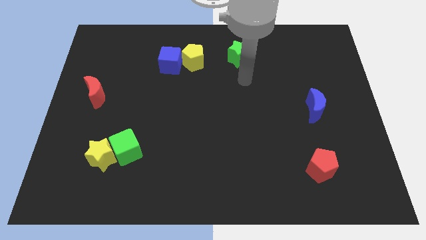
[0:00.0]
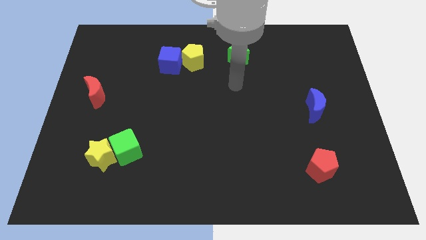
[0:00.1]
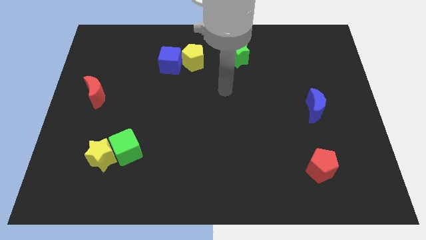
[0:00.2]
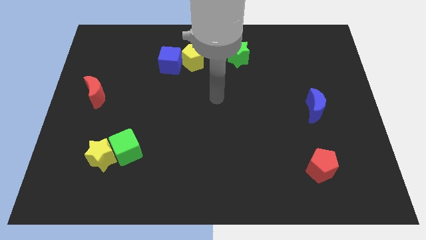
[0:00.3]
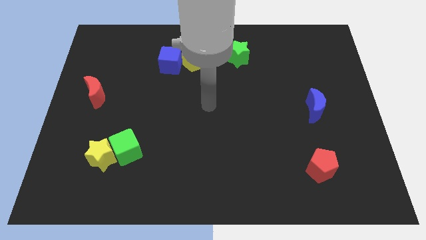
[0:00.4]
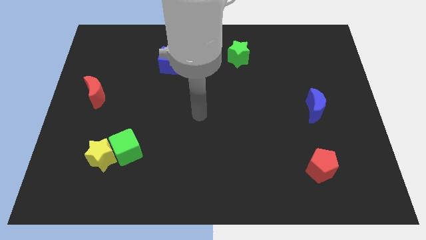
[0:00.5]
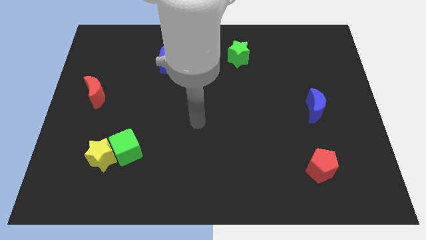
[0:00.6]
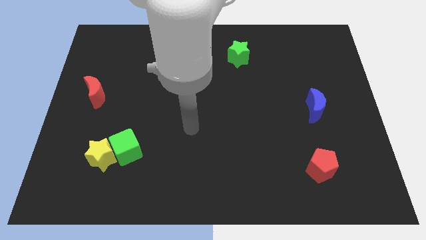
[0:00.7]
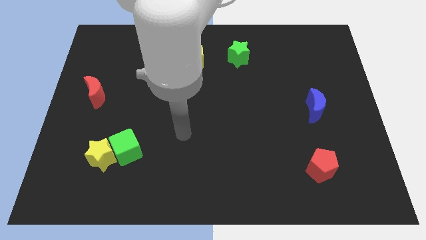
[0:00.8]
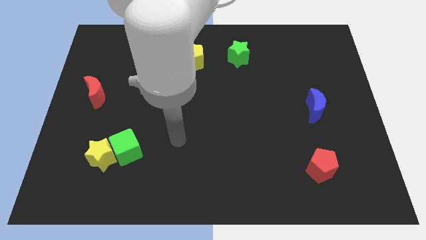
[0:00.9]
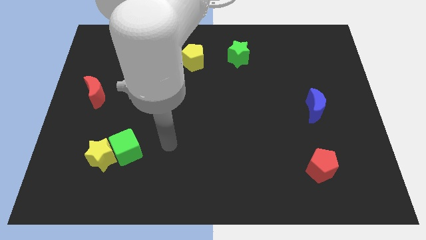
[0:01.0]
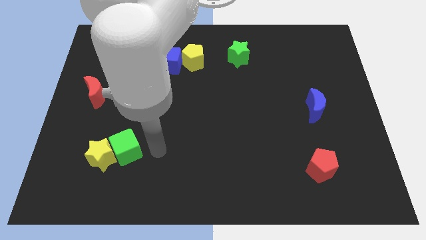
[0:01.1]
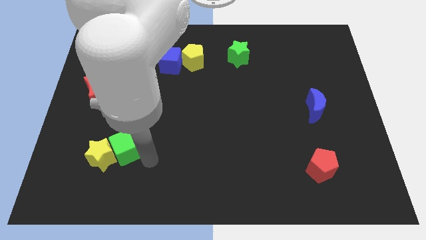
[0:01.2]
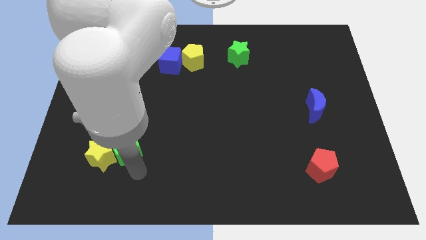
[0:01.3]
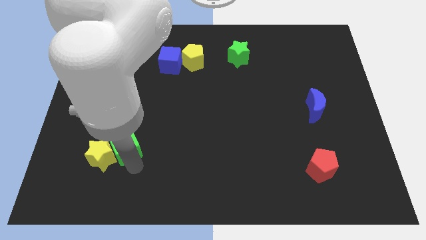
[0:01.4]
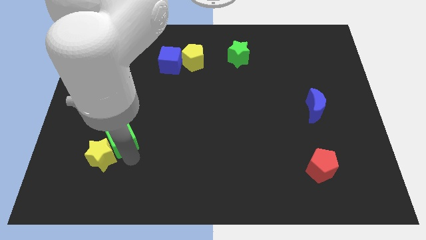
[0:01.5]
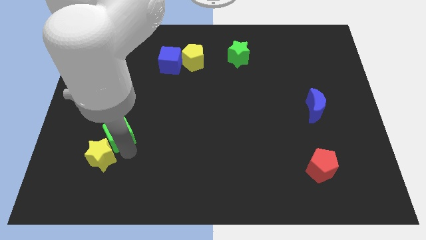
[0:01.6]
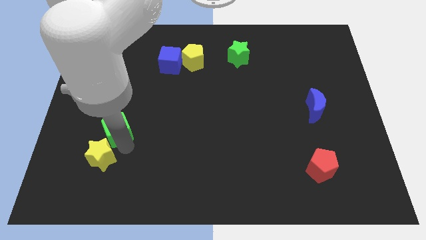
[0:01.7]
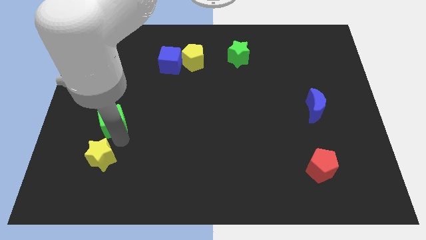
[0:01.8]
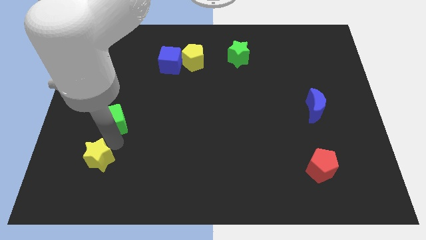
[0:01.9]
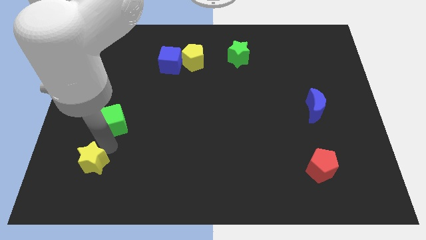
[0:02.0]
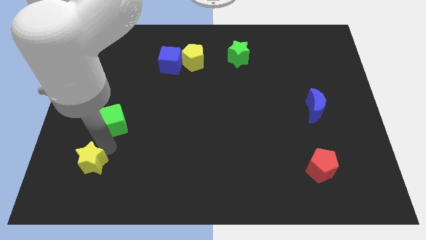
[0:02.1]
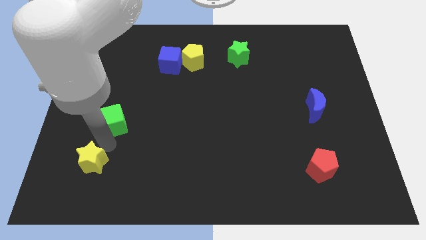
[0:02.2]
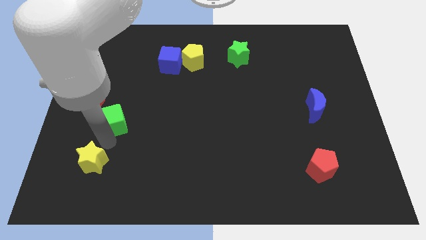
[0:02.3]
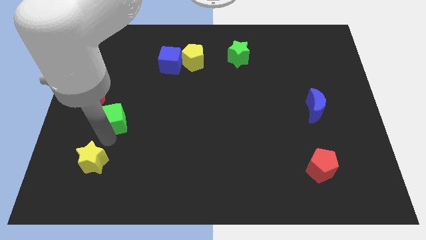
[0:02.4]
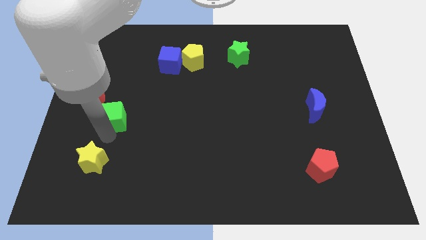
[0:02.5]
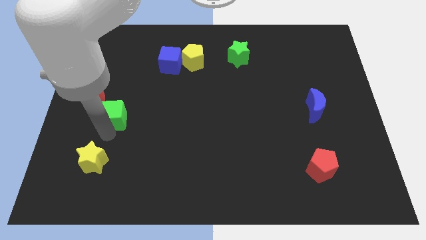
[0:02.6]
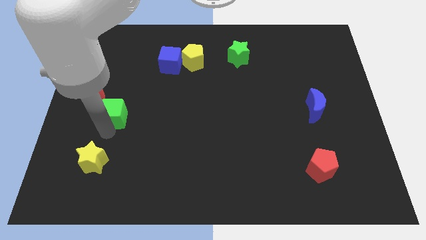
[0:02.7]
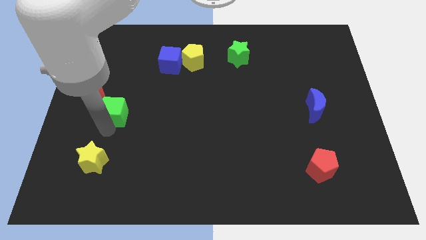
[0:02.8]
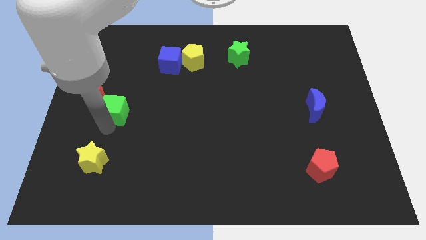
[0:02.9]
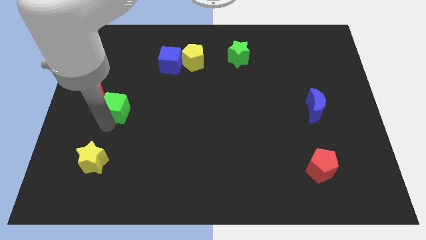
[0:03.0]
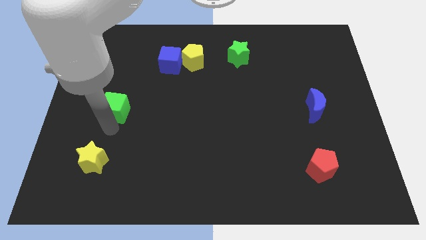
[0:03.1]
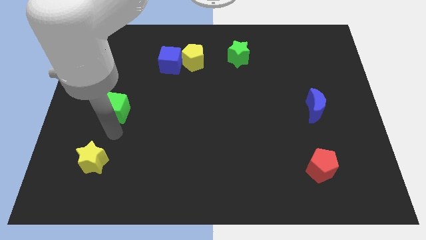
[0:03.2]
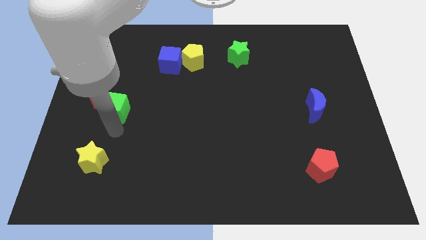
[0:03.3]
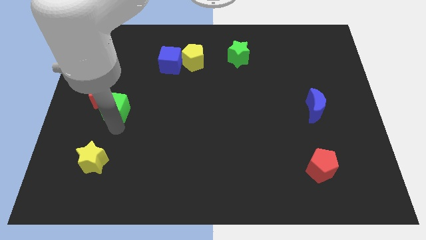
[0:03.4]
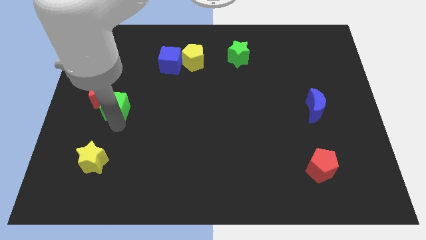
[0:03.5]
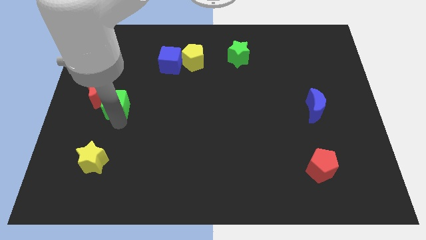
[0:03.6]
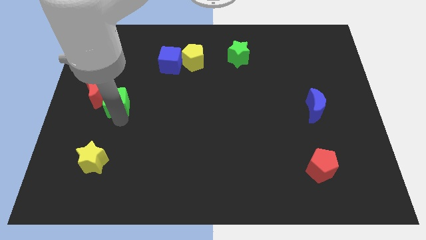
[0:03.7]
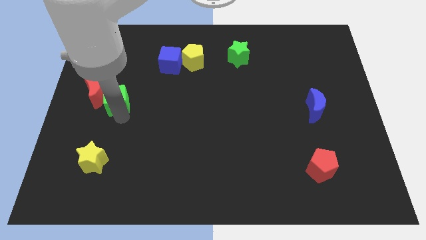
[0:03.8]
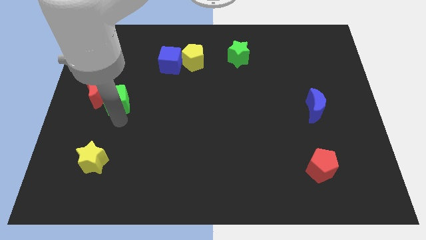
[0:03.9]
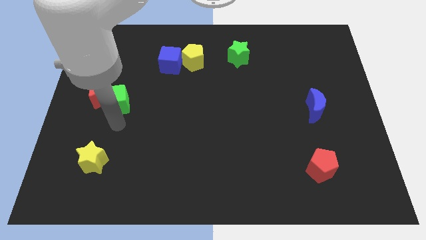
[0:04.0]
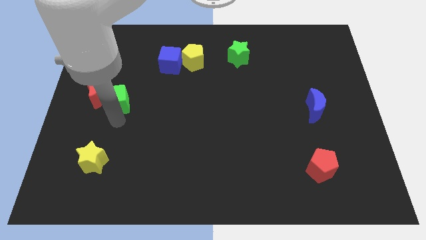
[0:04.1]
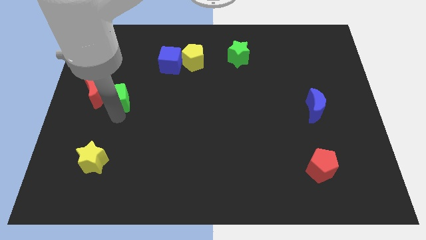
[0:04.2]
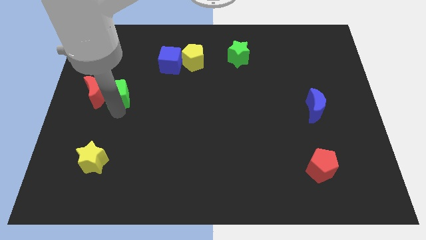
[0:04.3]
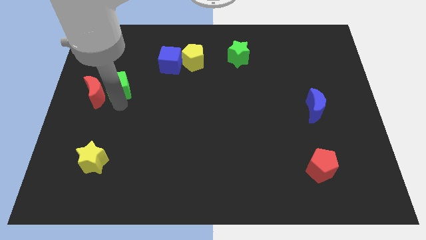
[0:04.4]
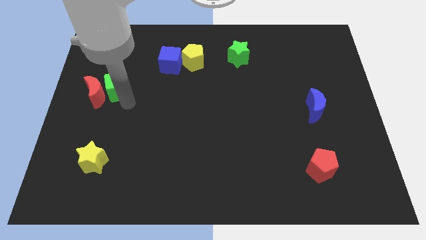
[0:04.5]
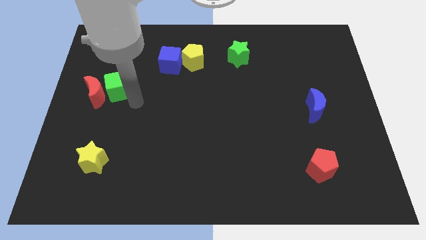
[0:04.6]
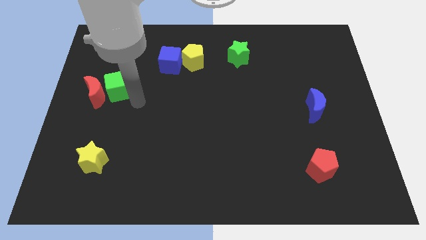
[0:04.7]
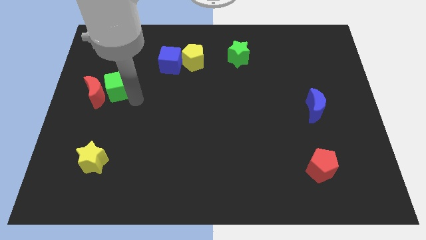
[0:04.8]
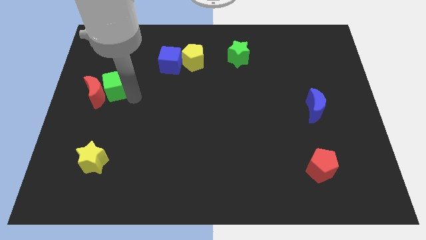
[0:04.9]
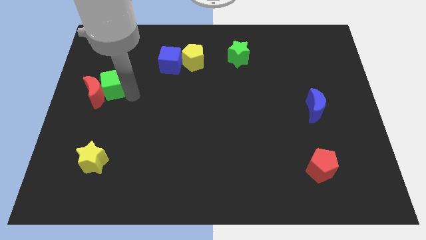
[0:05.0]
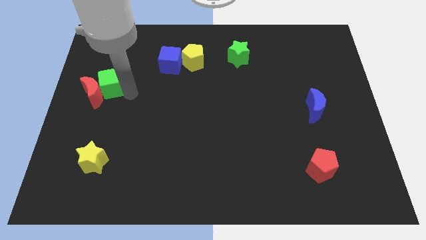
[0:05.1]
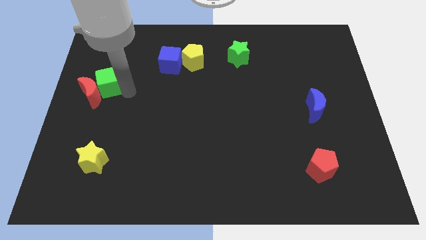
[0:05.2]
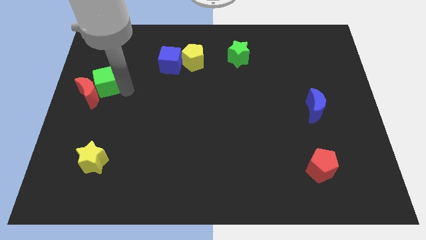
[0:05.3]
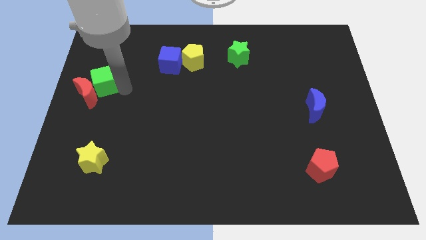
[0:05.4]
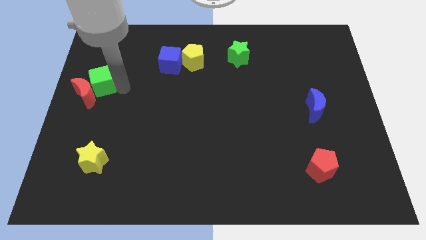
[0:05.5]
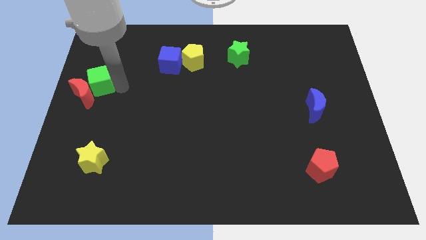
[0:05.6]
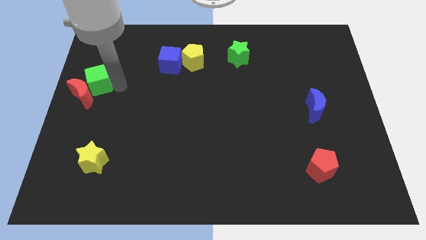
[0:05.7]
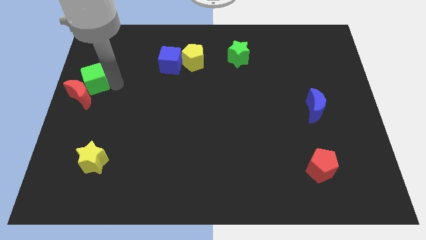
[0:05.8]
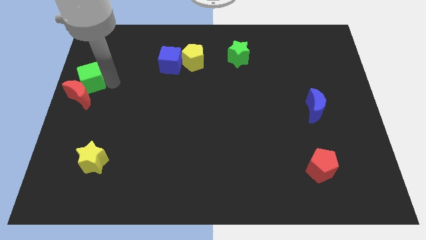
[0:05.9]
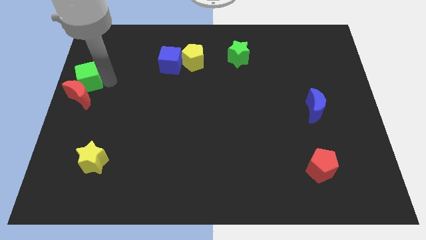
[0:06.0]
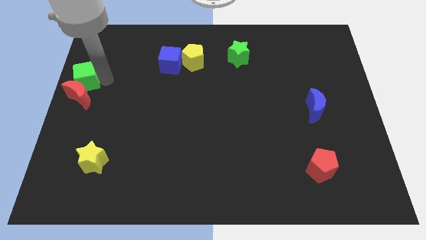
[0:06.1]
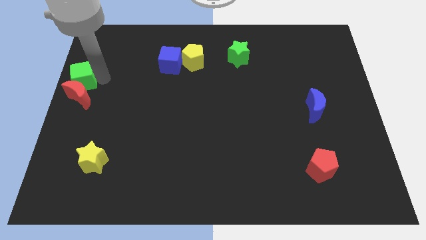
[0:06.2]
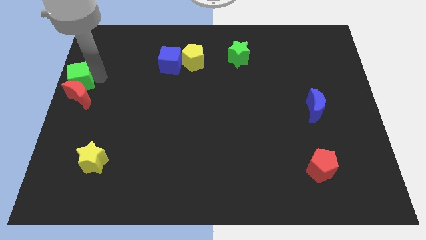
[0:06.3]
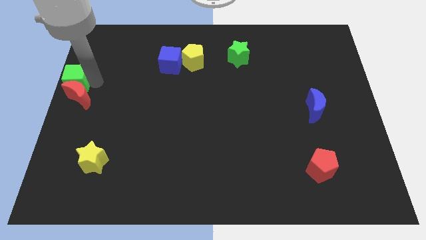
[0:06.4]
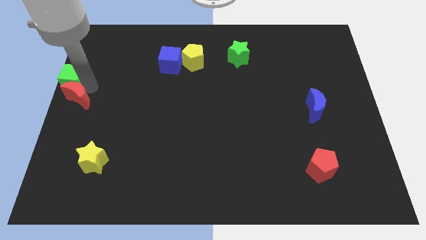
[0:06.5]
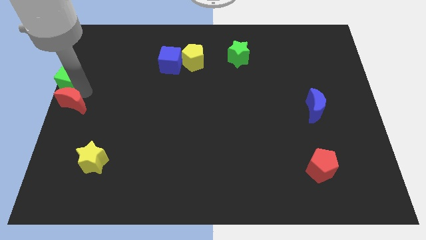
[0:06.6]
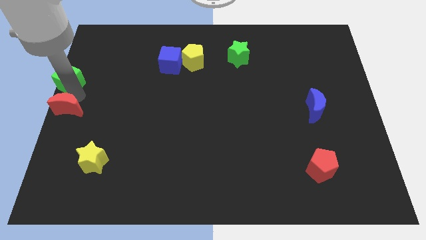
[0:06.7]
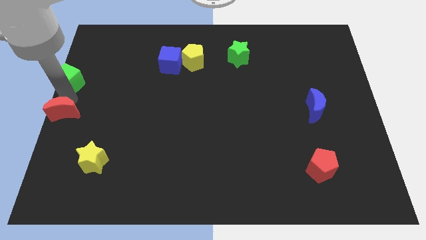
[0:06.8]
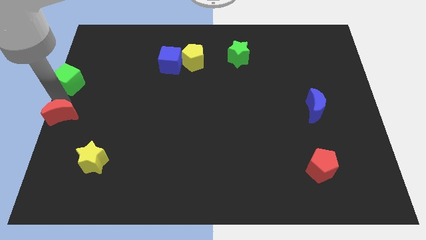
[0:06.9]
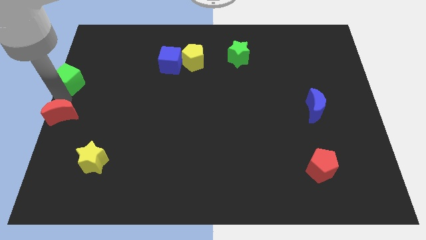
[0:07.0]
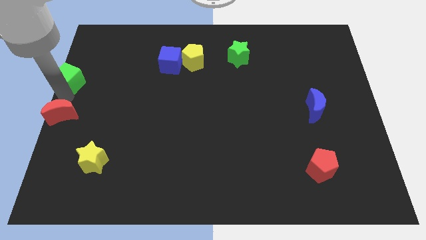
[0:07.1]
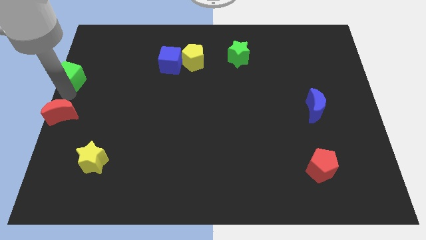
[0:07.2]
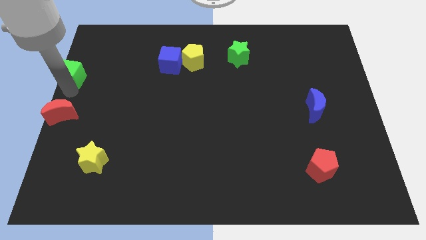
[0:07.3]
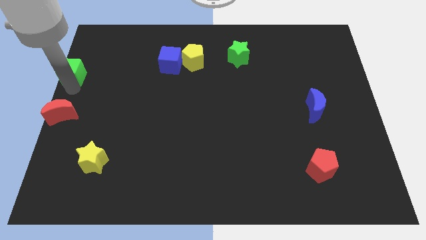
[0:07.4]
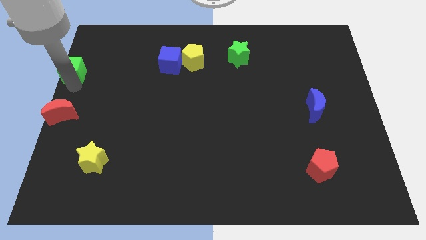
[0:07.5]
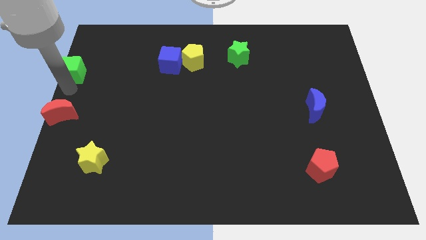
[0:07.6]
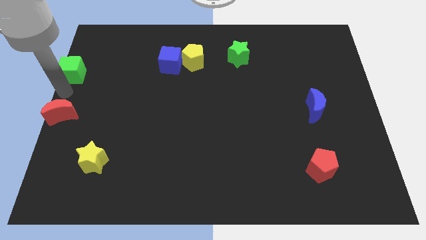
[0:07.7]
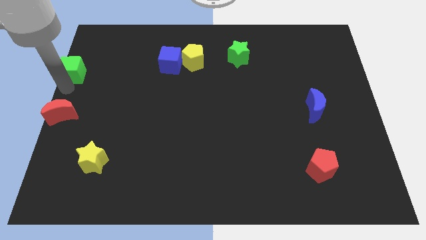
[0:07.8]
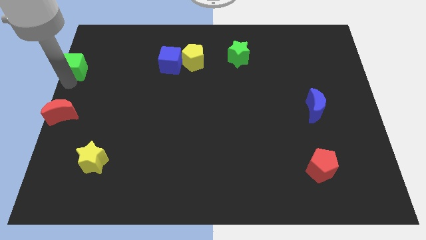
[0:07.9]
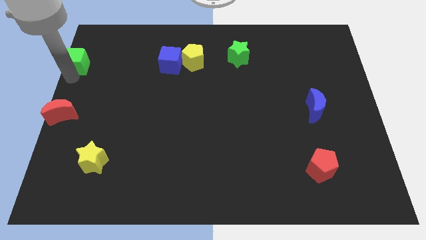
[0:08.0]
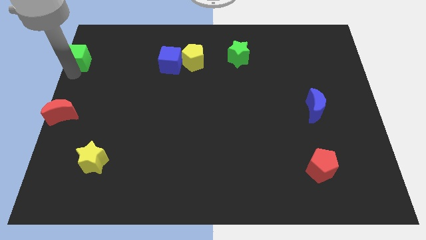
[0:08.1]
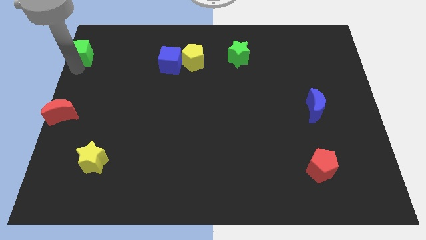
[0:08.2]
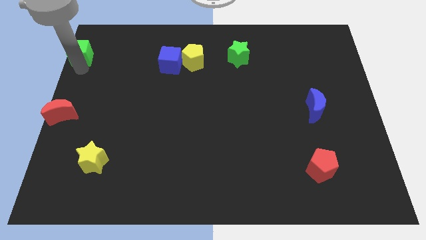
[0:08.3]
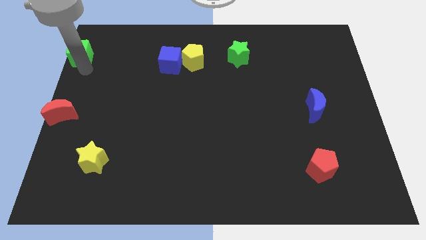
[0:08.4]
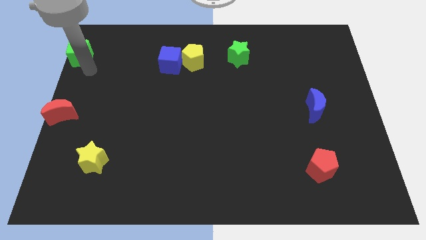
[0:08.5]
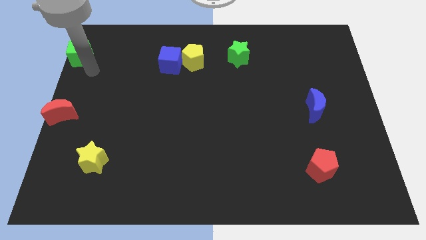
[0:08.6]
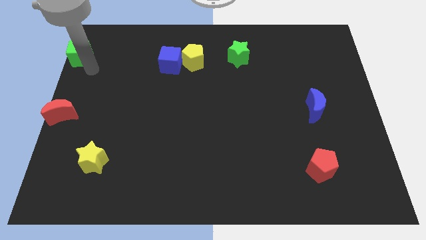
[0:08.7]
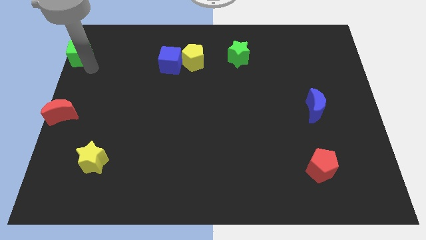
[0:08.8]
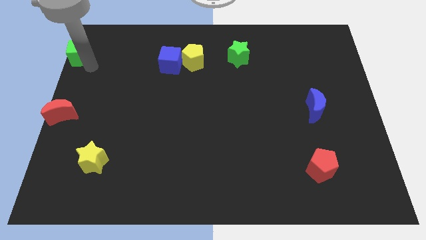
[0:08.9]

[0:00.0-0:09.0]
push the green cube to the top left
